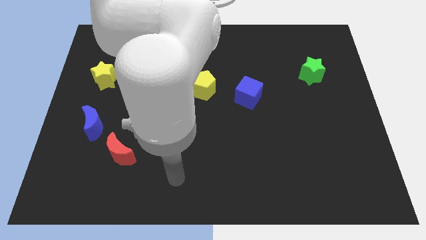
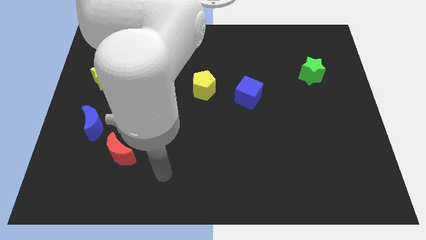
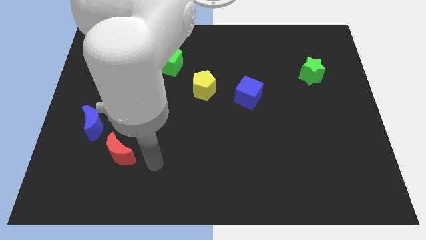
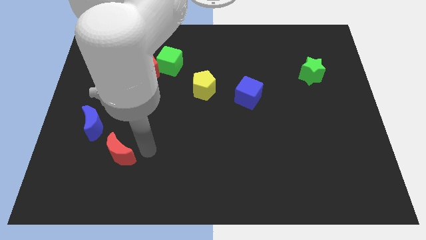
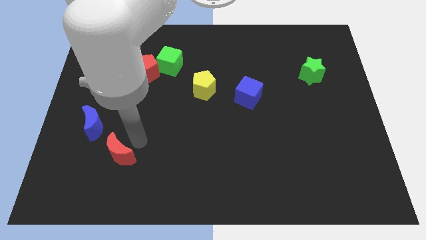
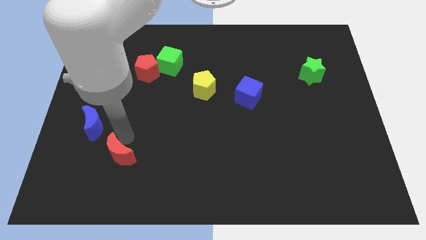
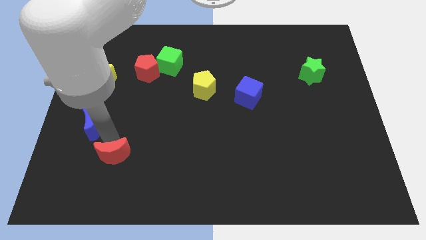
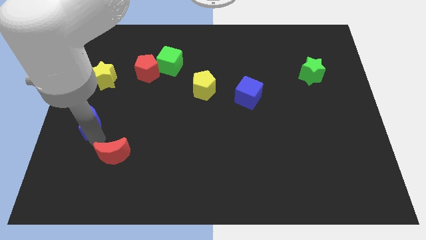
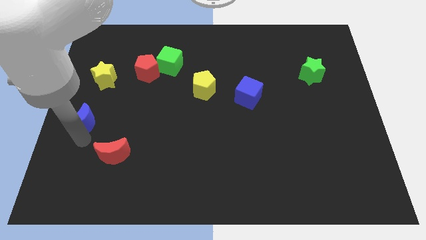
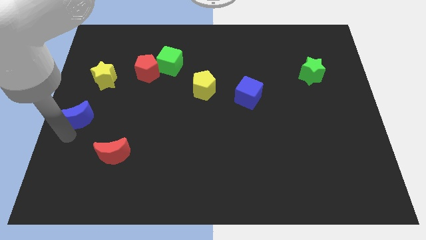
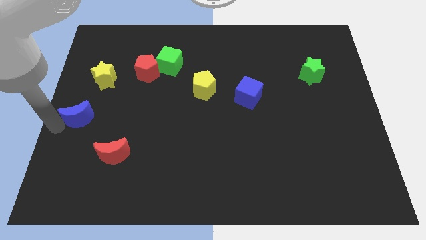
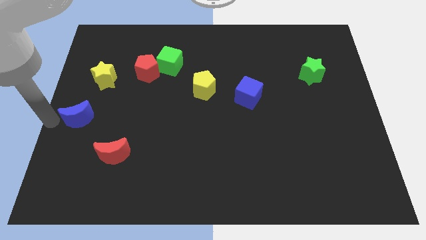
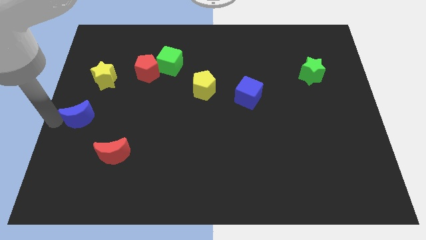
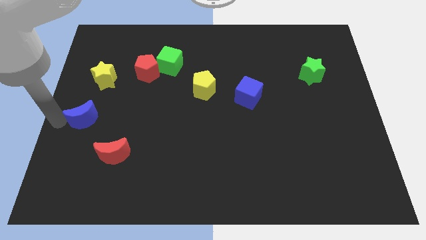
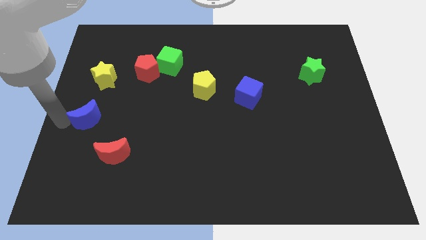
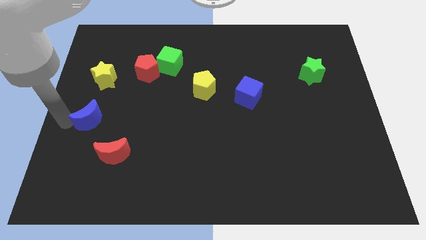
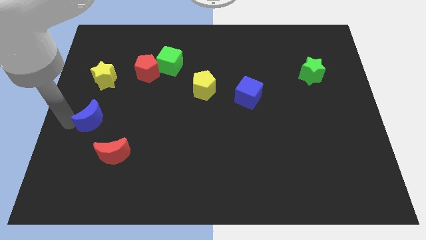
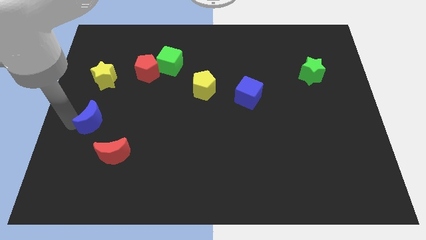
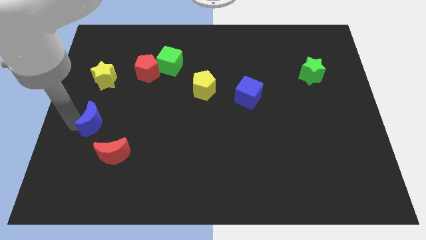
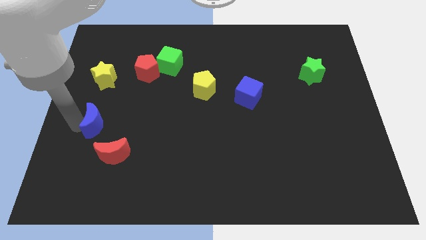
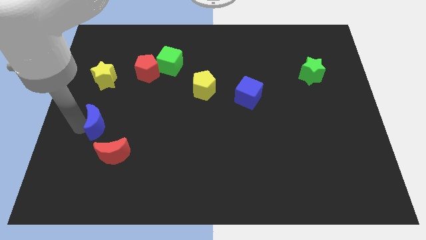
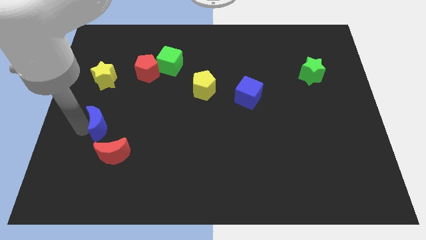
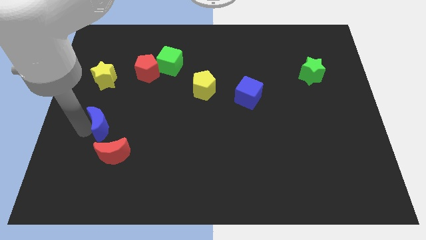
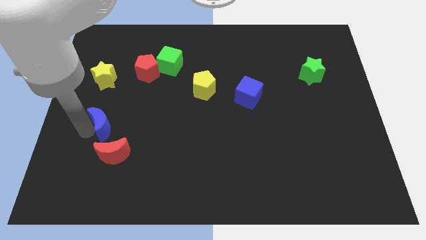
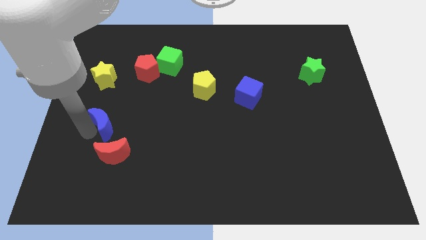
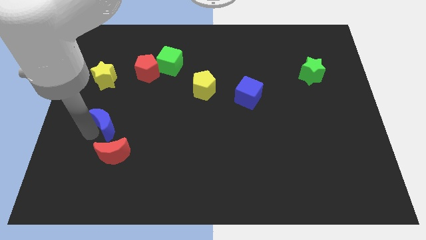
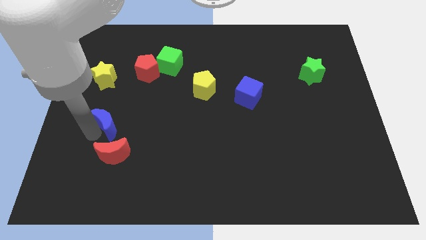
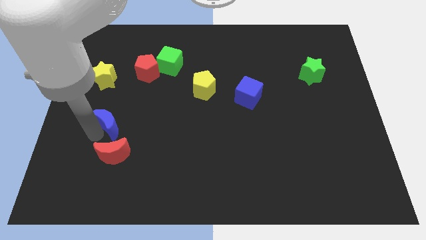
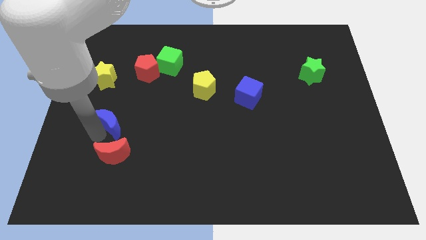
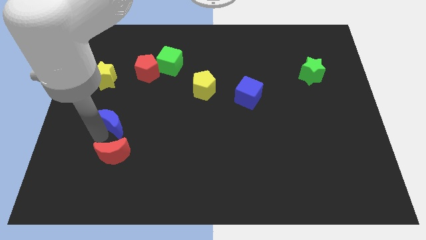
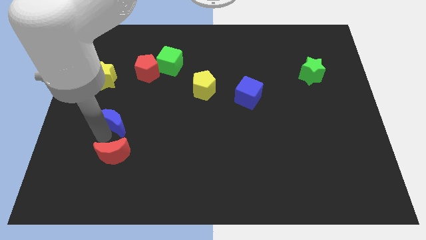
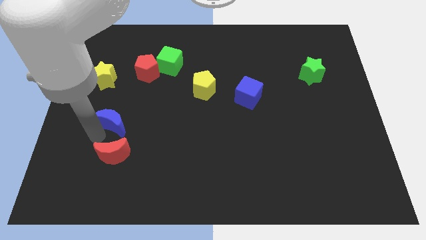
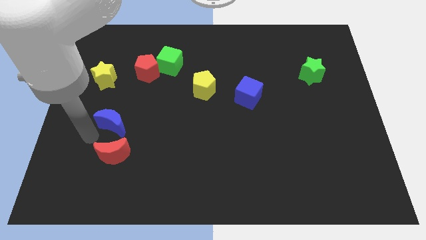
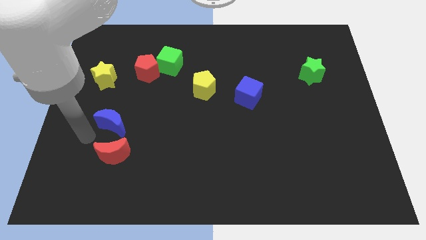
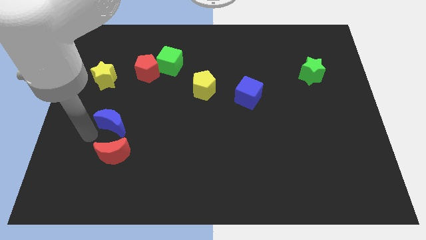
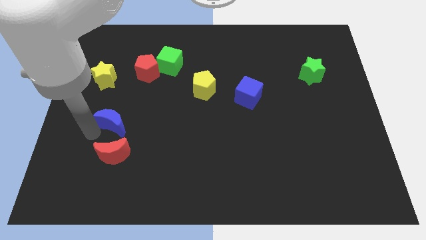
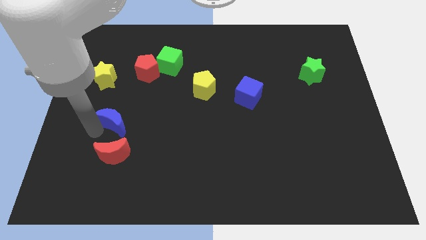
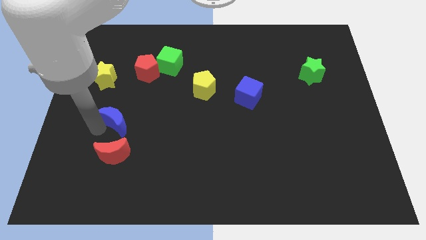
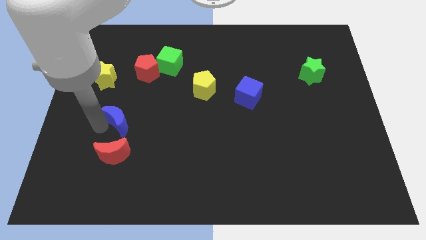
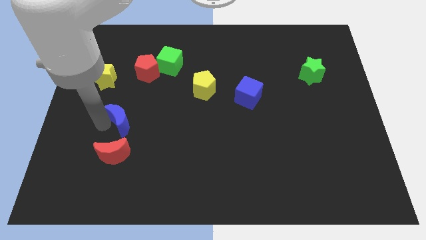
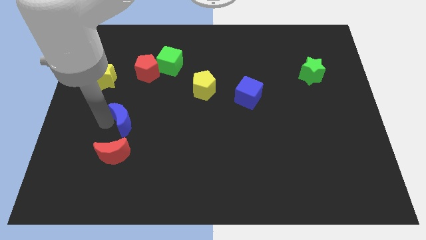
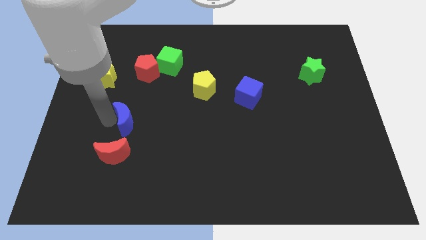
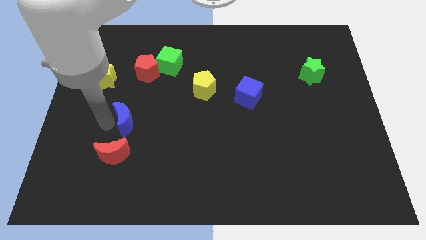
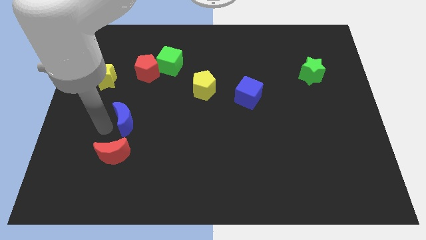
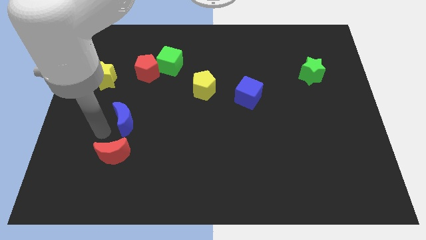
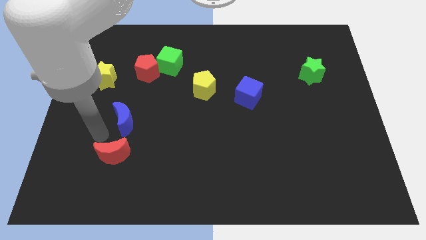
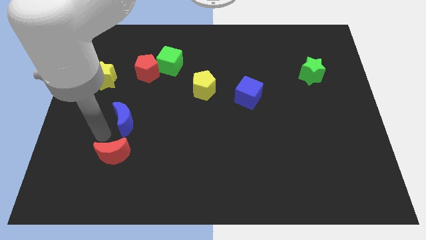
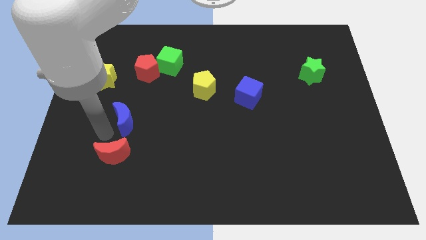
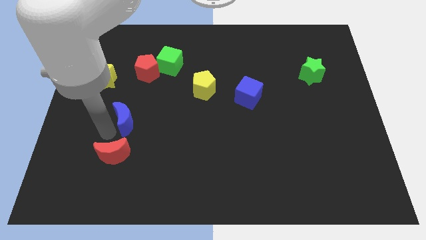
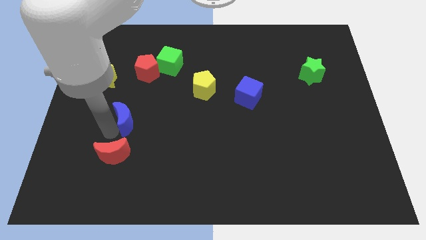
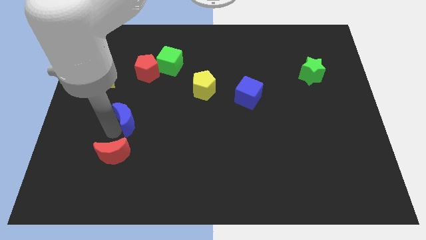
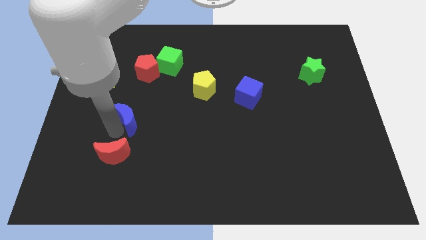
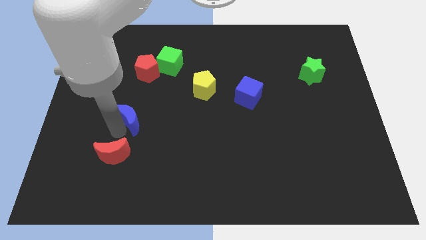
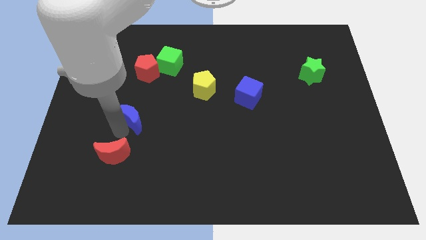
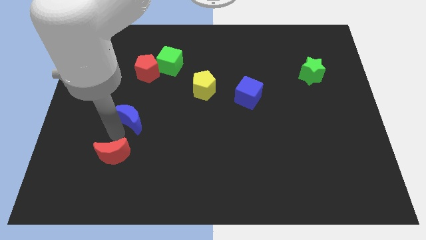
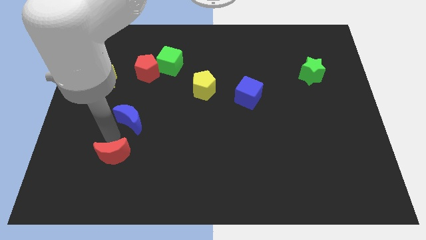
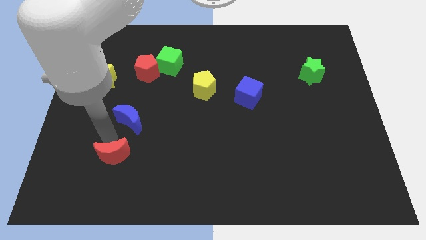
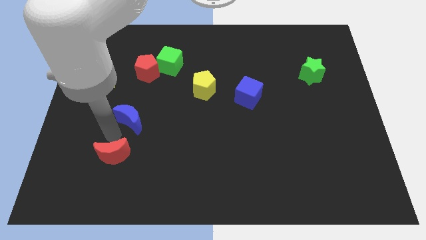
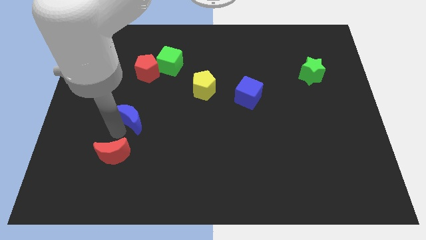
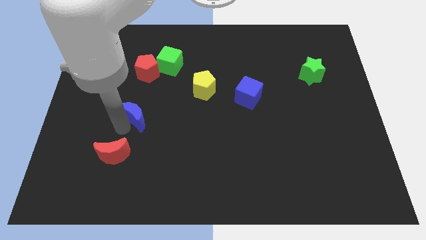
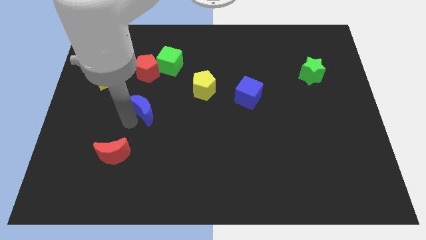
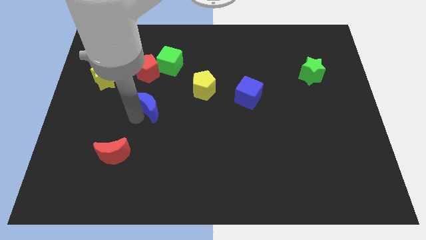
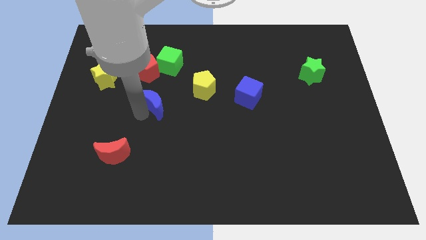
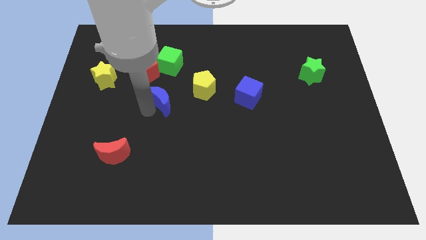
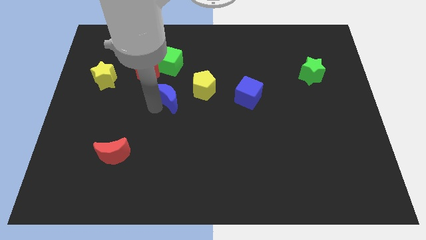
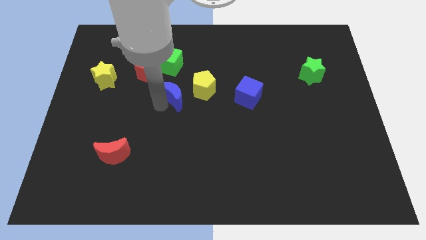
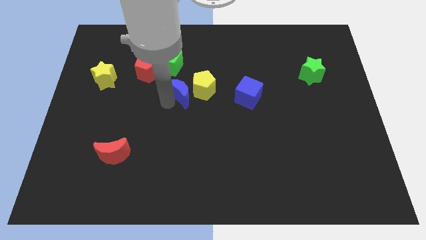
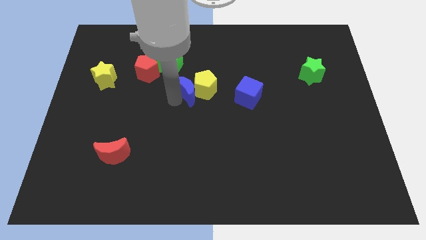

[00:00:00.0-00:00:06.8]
put the blue moon diagonally down and to the right of the green cube

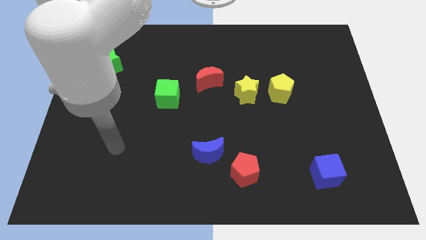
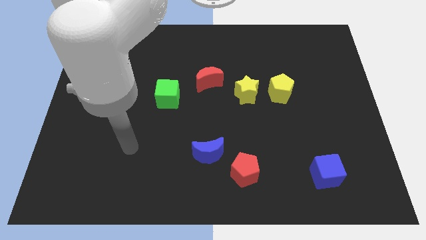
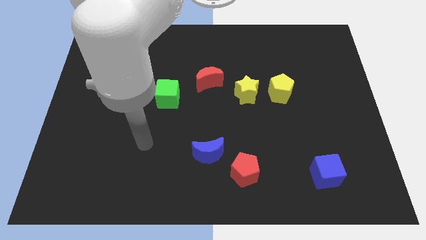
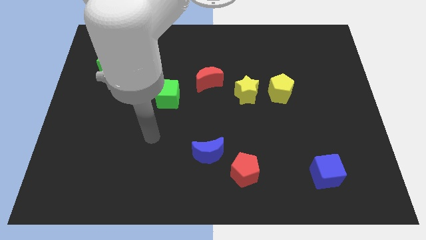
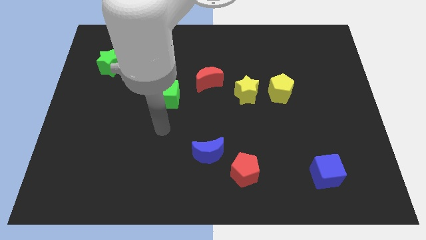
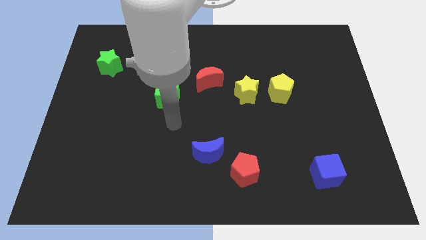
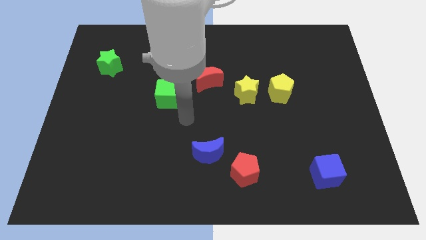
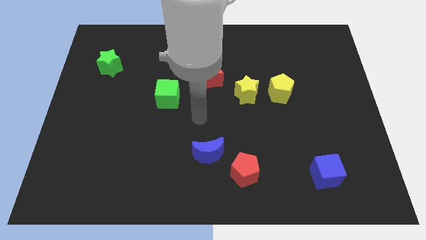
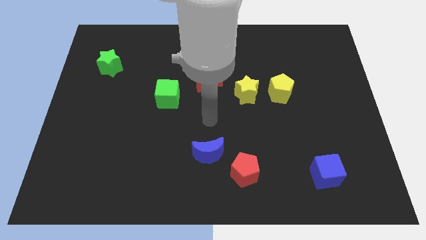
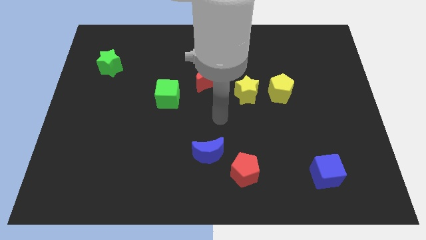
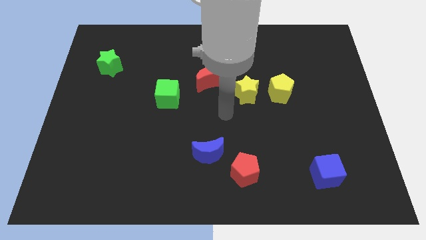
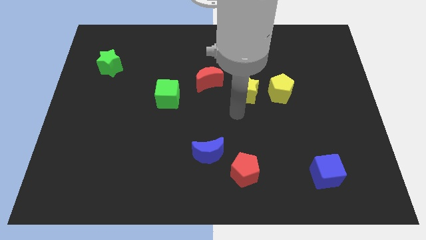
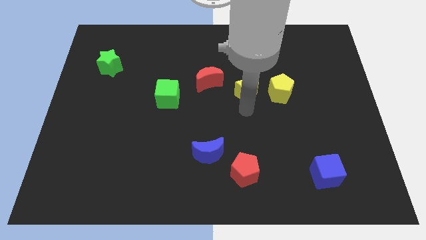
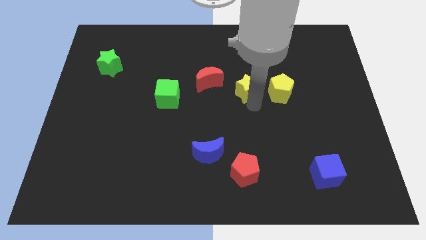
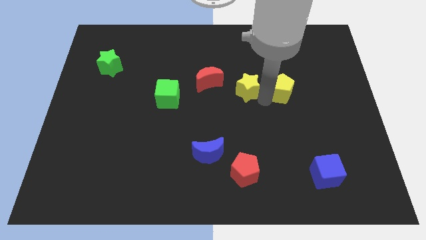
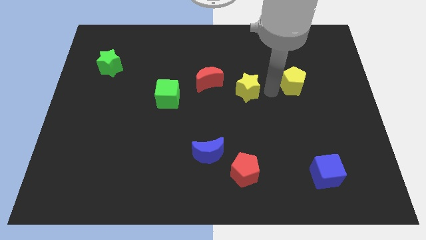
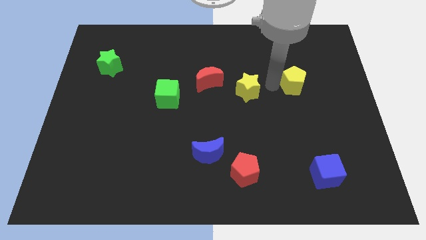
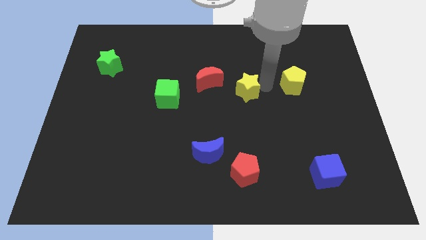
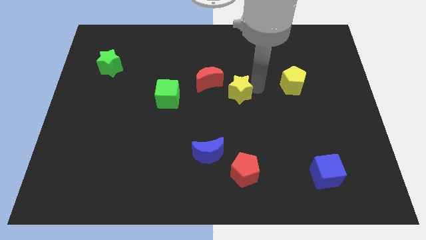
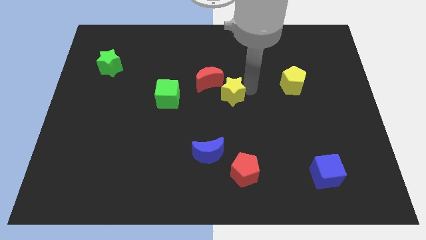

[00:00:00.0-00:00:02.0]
push the yellow star to the right of the green cube
